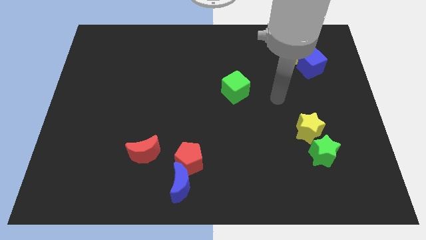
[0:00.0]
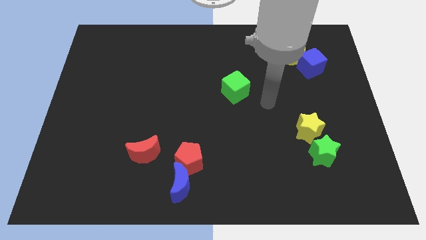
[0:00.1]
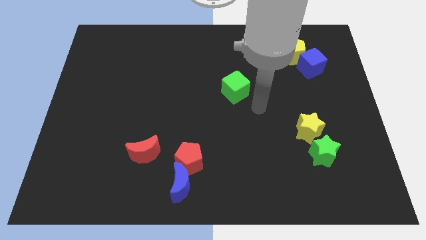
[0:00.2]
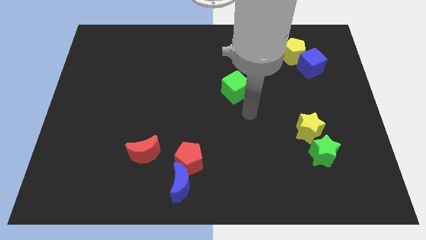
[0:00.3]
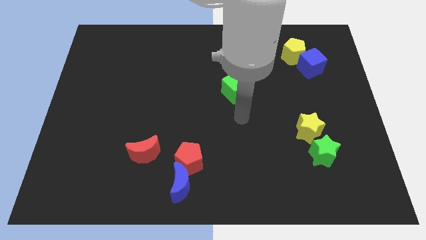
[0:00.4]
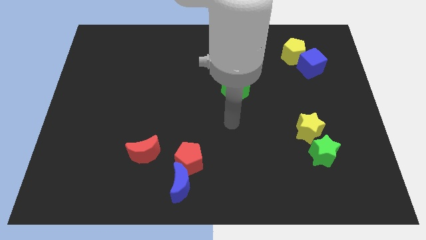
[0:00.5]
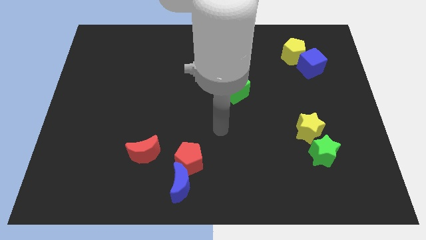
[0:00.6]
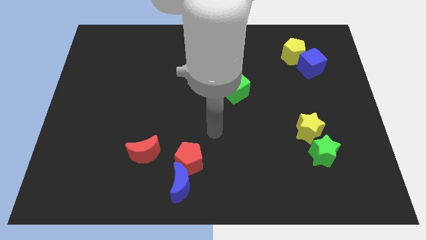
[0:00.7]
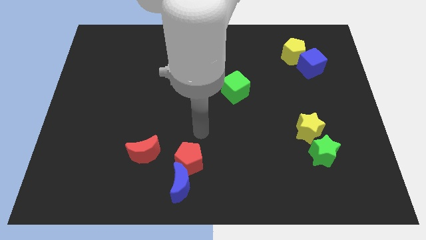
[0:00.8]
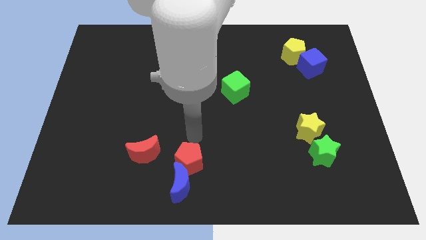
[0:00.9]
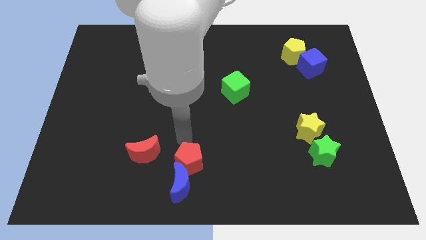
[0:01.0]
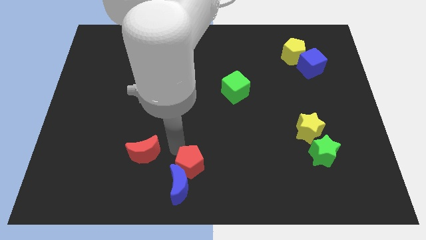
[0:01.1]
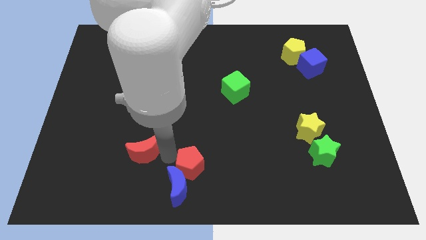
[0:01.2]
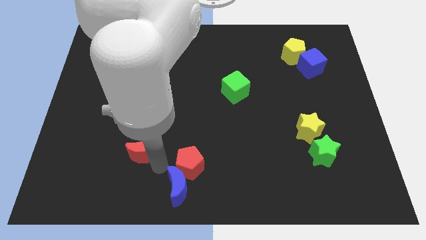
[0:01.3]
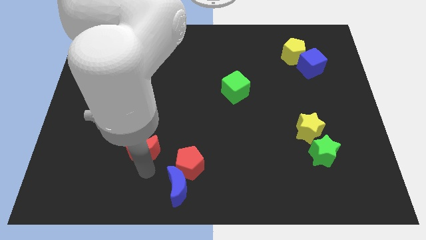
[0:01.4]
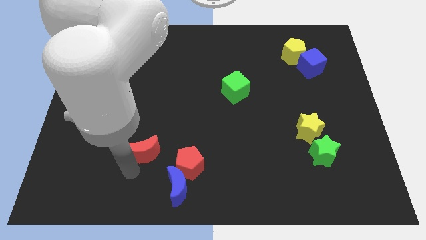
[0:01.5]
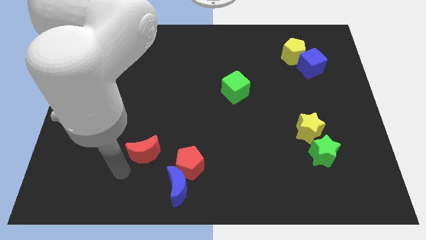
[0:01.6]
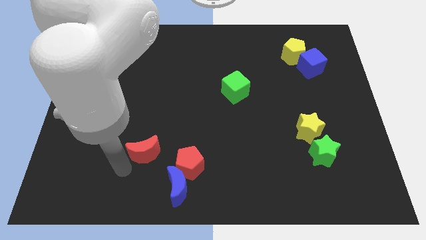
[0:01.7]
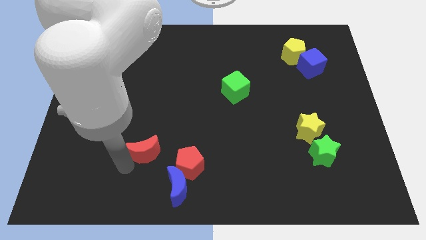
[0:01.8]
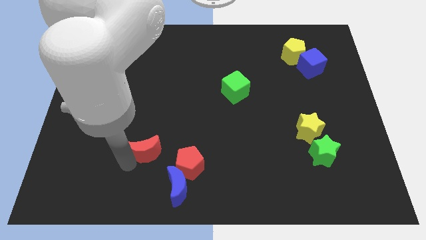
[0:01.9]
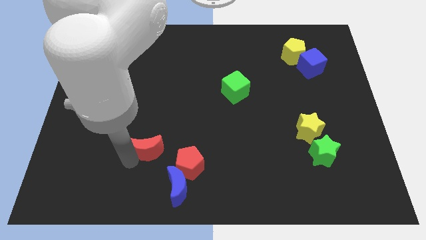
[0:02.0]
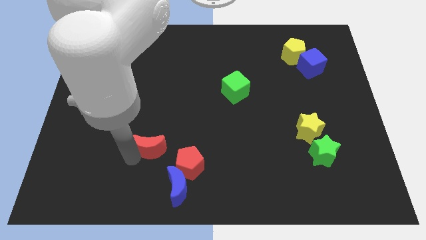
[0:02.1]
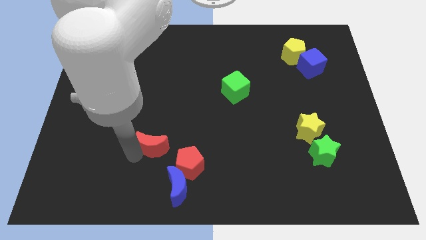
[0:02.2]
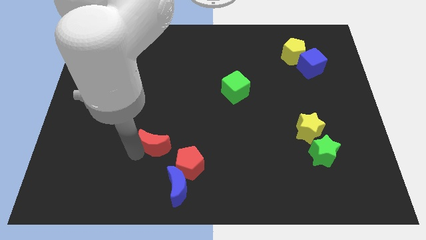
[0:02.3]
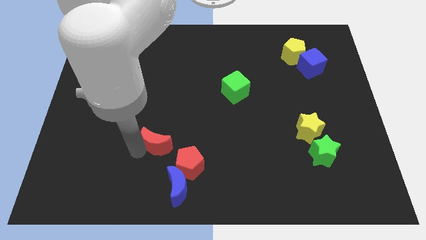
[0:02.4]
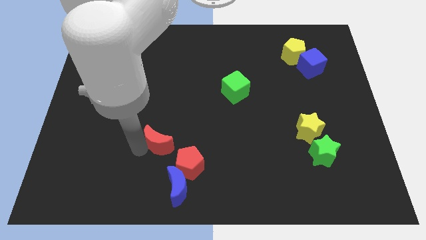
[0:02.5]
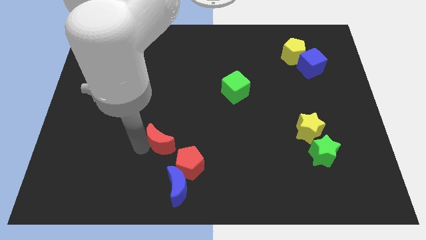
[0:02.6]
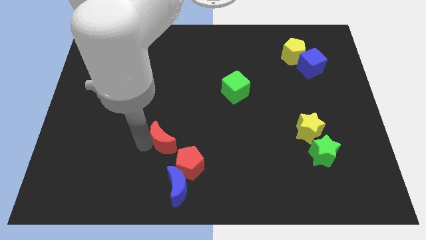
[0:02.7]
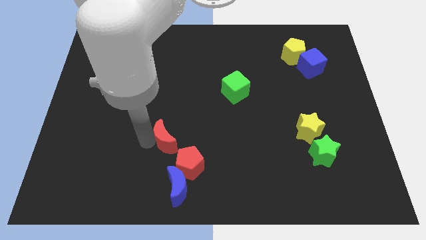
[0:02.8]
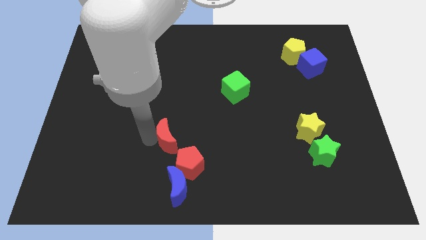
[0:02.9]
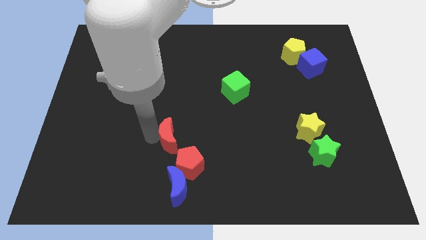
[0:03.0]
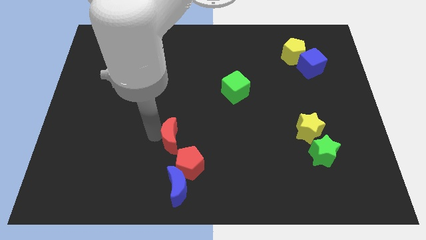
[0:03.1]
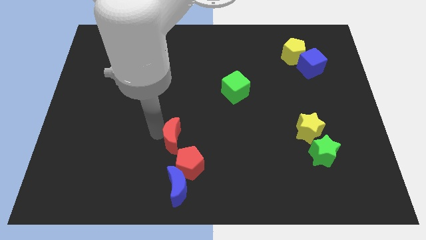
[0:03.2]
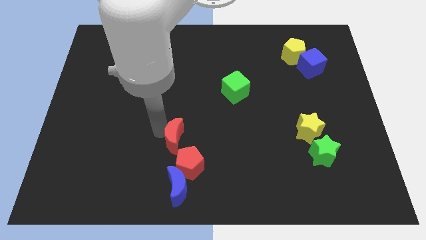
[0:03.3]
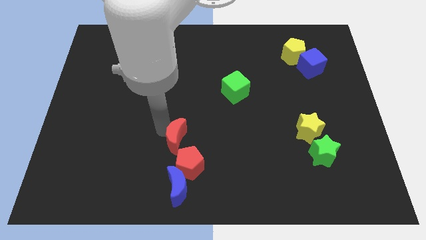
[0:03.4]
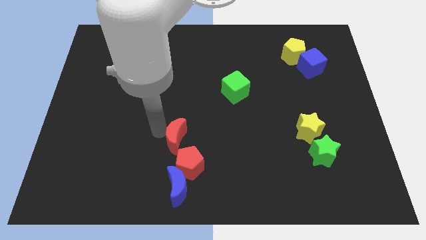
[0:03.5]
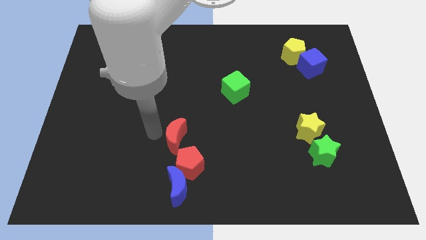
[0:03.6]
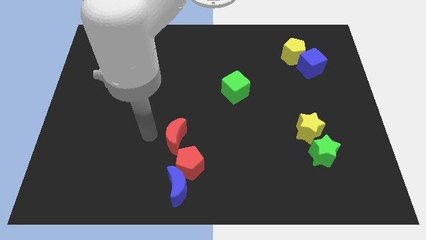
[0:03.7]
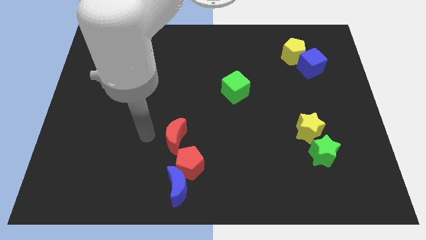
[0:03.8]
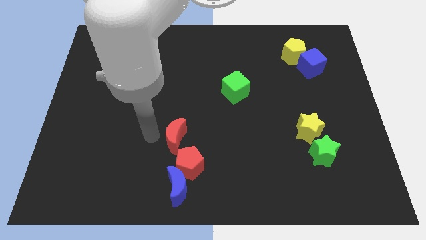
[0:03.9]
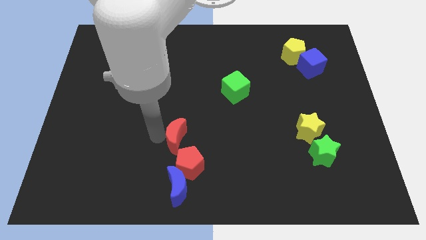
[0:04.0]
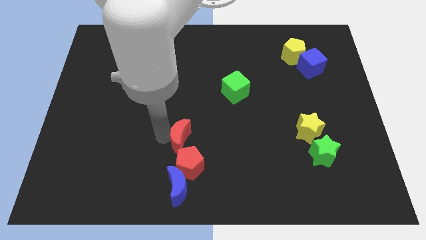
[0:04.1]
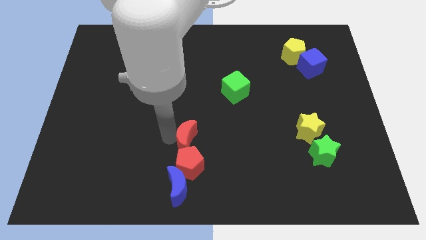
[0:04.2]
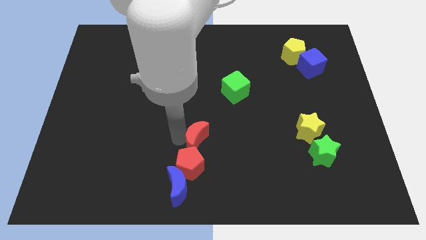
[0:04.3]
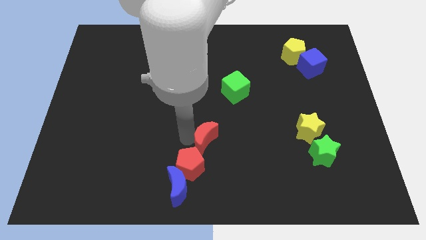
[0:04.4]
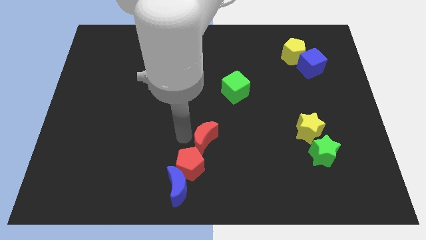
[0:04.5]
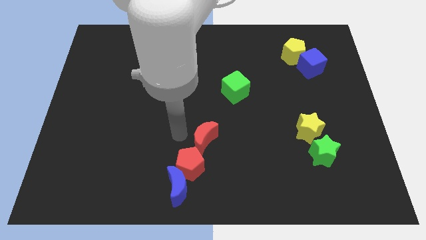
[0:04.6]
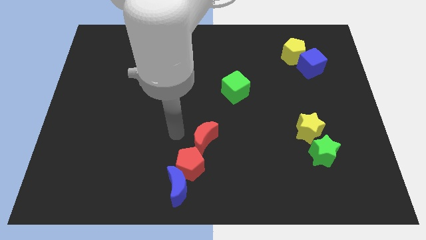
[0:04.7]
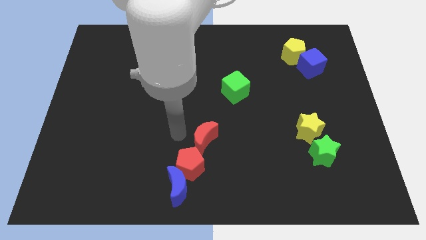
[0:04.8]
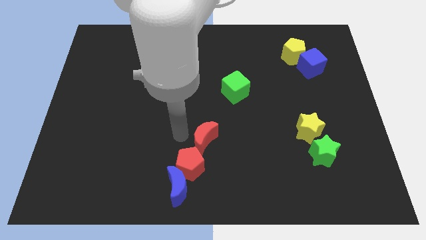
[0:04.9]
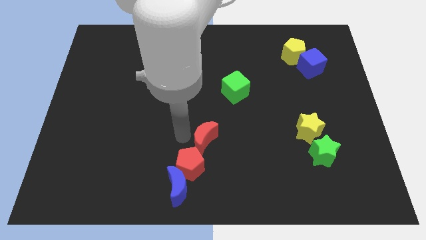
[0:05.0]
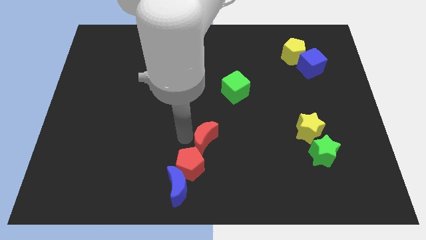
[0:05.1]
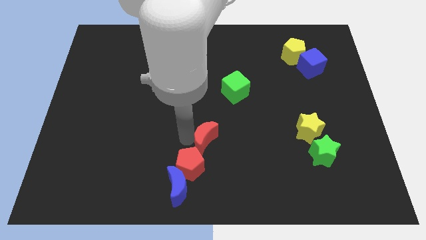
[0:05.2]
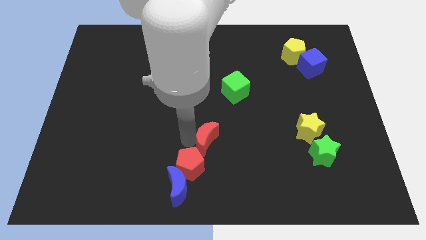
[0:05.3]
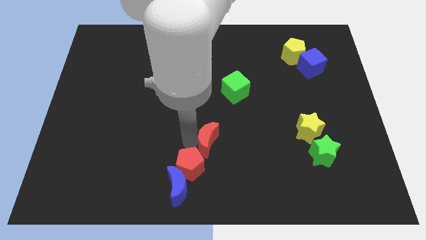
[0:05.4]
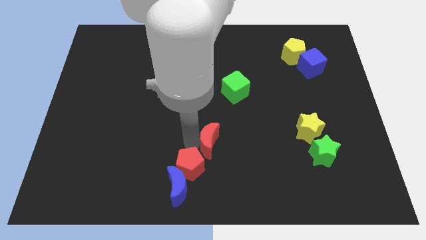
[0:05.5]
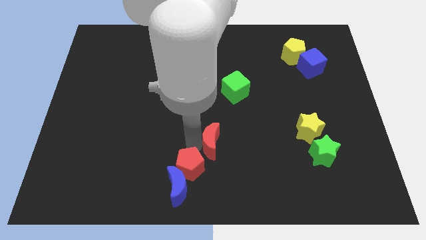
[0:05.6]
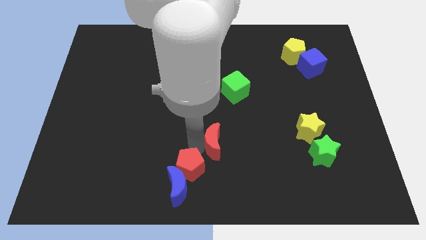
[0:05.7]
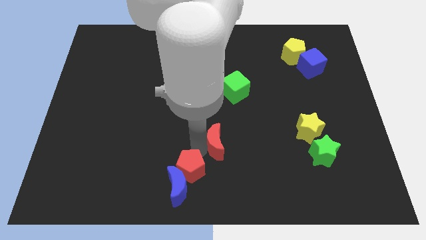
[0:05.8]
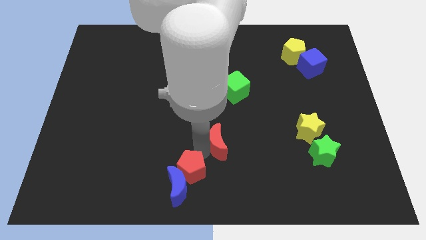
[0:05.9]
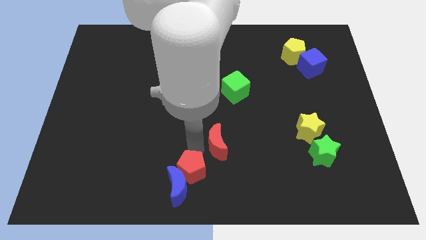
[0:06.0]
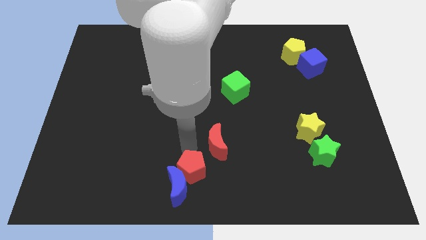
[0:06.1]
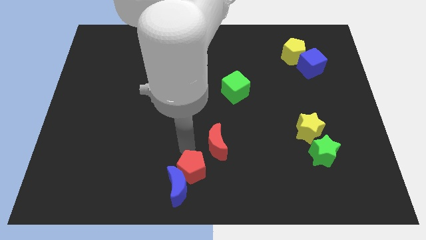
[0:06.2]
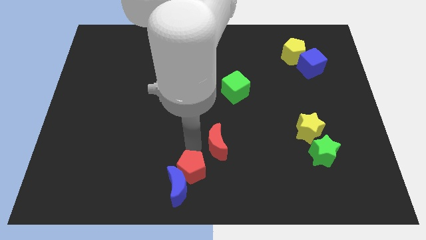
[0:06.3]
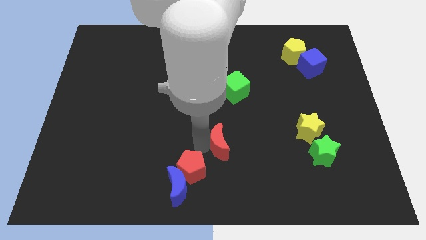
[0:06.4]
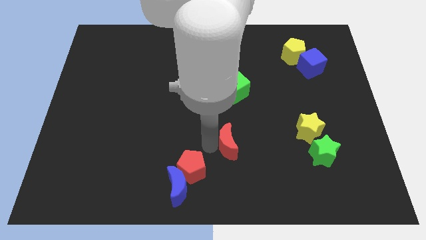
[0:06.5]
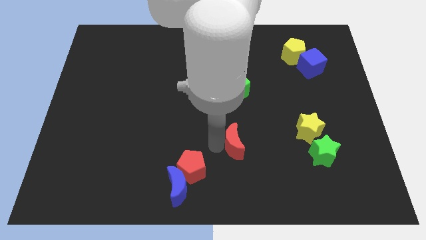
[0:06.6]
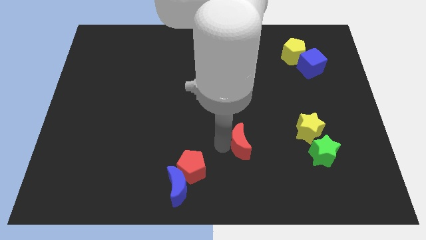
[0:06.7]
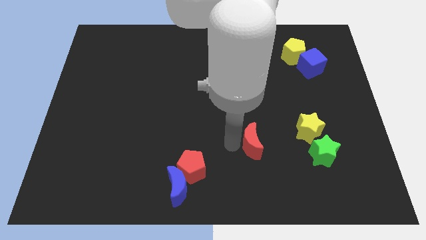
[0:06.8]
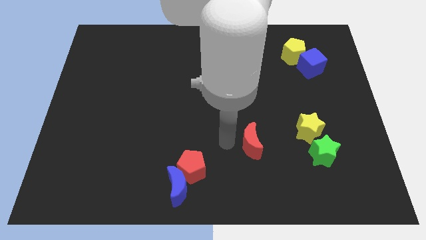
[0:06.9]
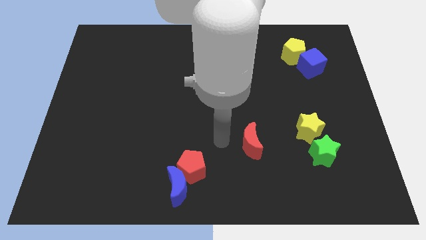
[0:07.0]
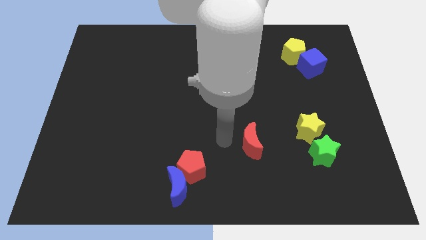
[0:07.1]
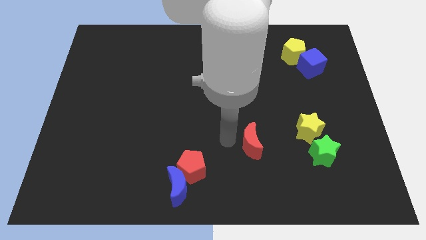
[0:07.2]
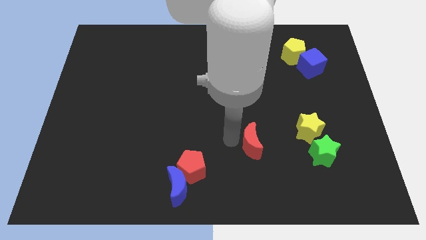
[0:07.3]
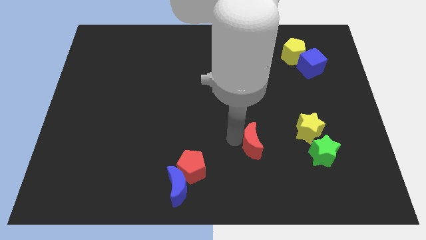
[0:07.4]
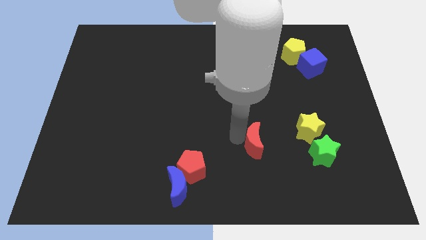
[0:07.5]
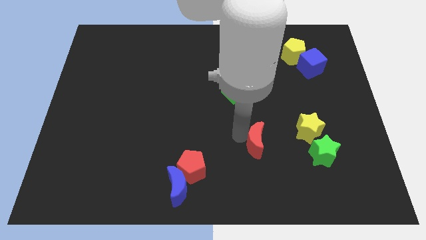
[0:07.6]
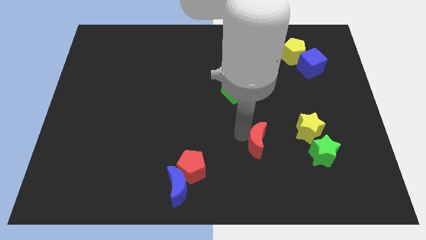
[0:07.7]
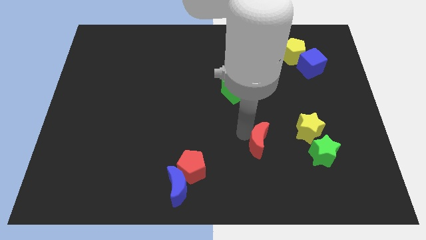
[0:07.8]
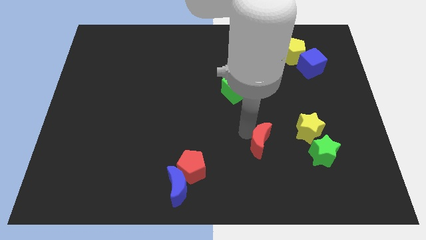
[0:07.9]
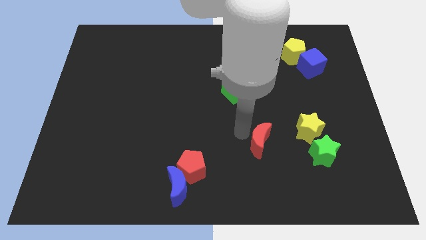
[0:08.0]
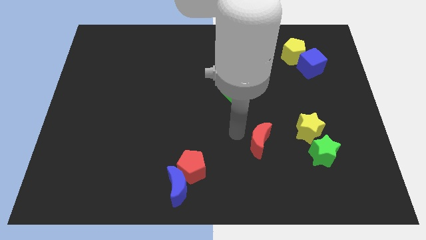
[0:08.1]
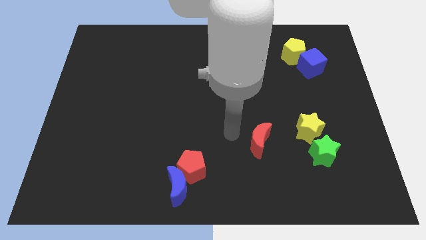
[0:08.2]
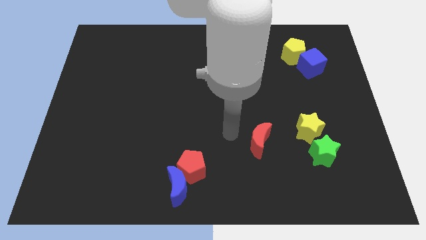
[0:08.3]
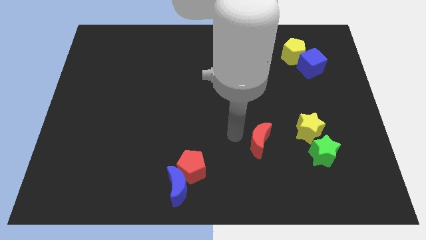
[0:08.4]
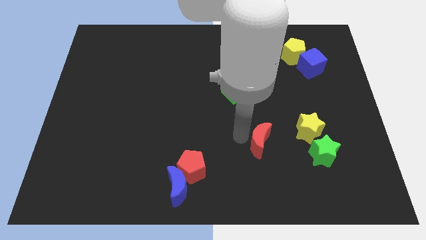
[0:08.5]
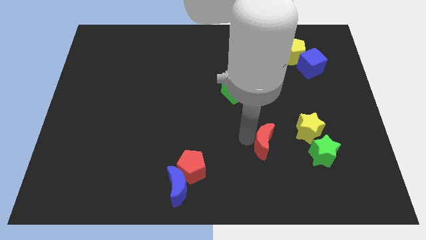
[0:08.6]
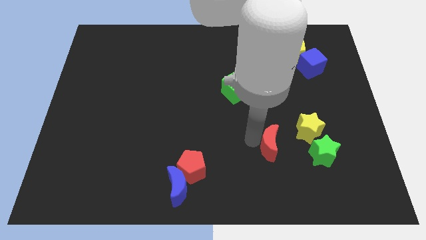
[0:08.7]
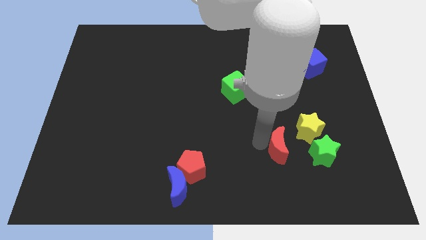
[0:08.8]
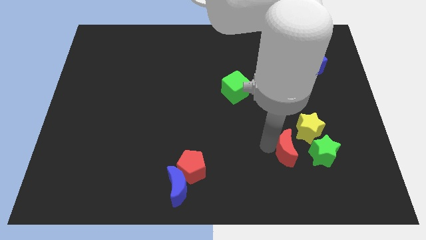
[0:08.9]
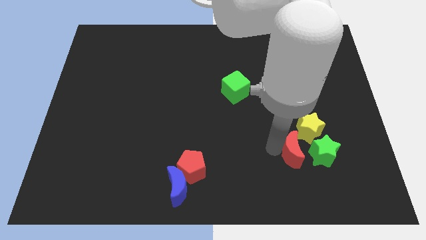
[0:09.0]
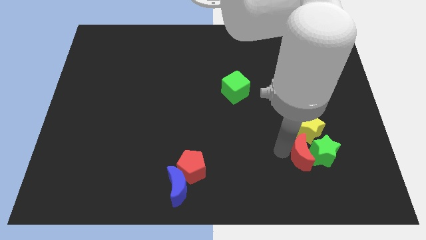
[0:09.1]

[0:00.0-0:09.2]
slide the red moon close to the green star
